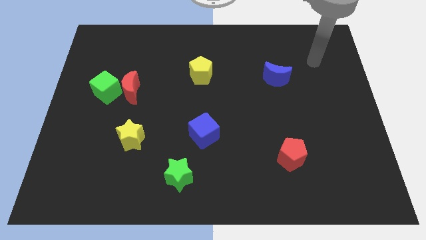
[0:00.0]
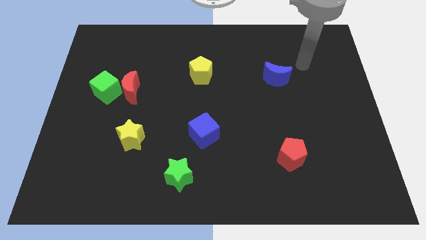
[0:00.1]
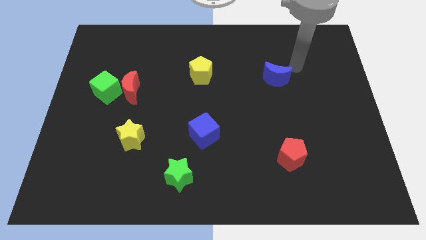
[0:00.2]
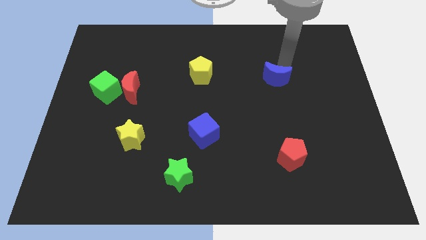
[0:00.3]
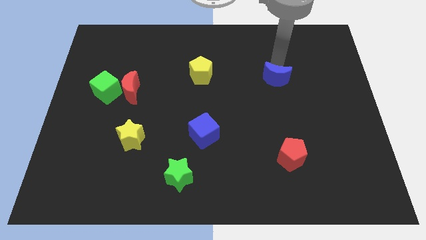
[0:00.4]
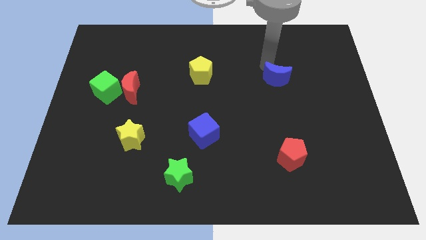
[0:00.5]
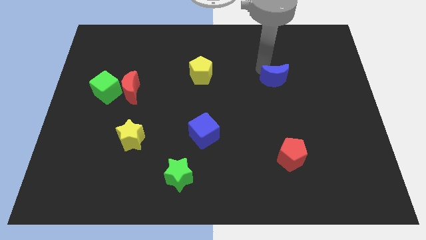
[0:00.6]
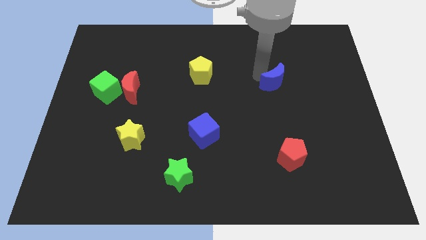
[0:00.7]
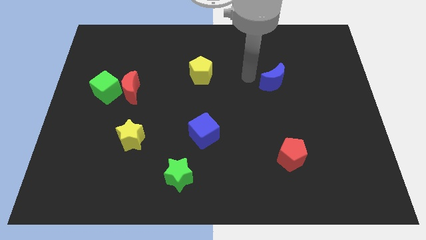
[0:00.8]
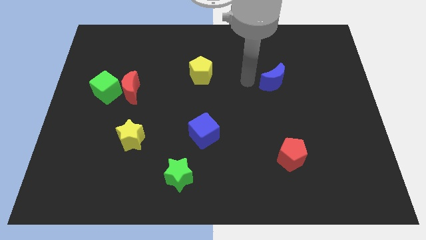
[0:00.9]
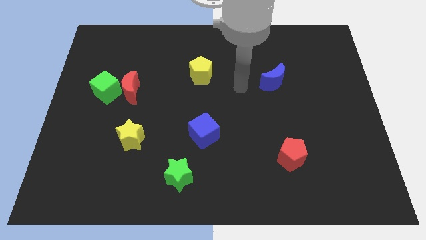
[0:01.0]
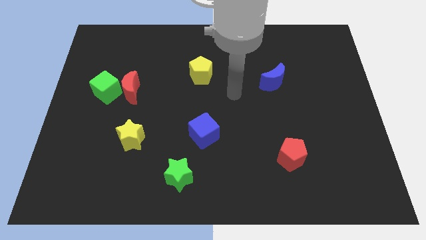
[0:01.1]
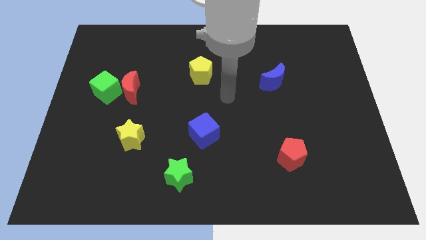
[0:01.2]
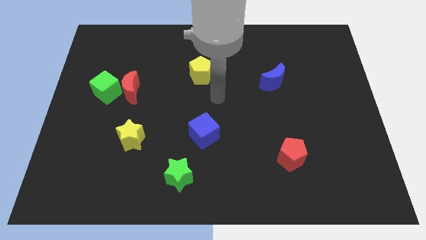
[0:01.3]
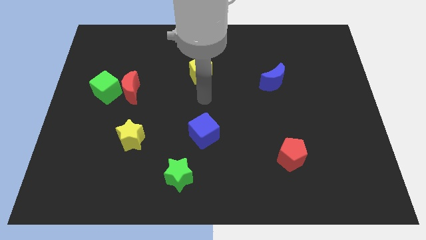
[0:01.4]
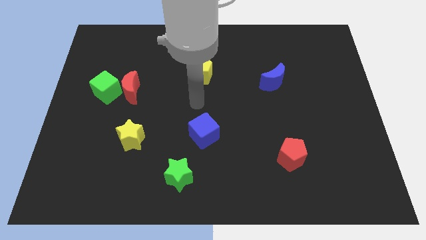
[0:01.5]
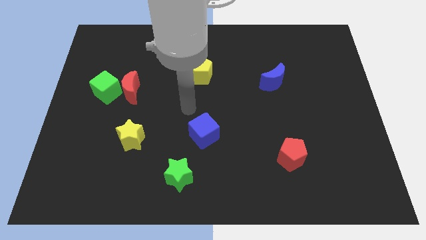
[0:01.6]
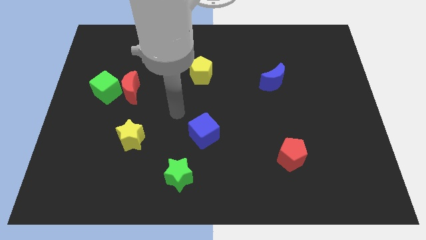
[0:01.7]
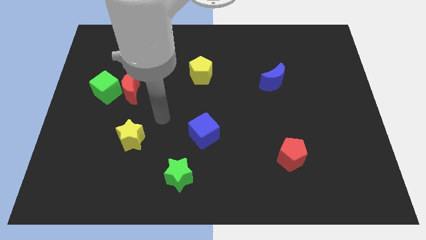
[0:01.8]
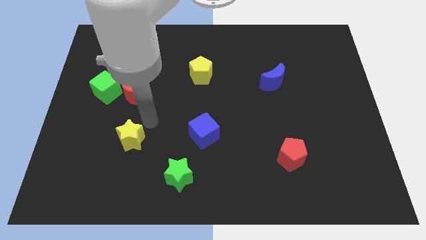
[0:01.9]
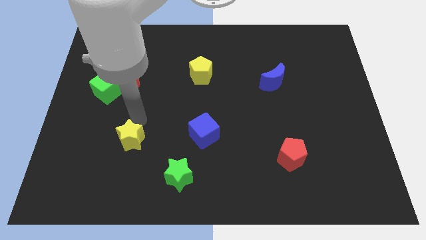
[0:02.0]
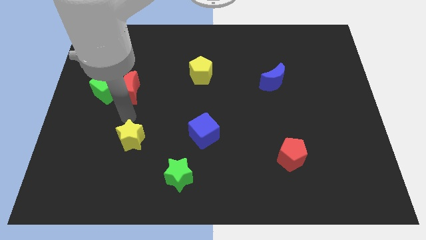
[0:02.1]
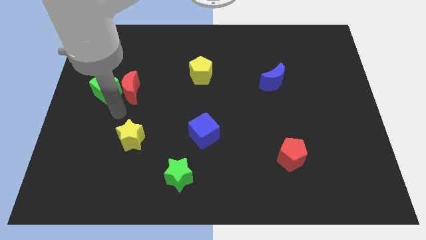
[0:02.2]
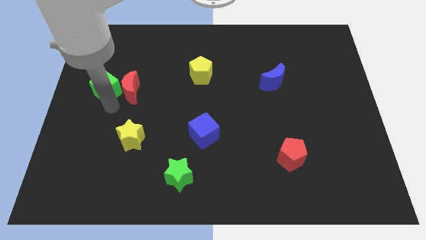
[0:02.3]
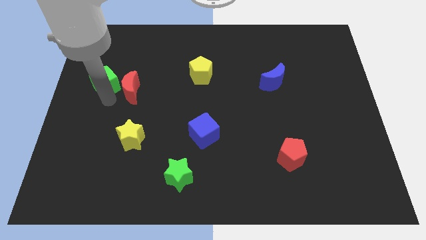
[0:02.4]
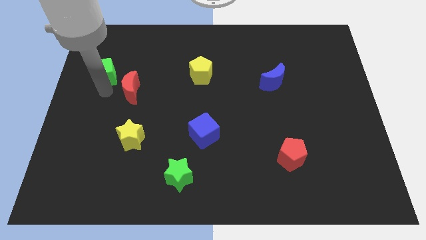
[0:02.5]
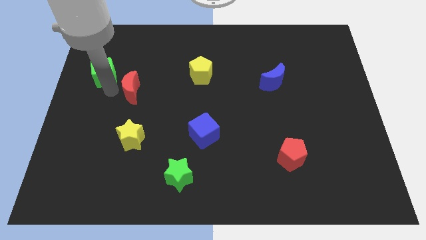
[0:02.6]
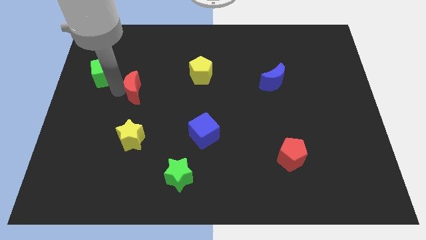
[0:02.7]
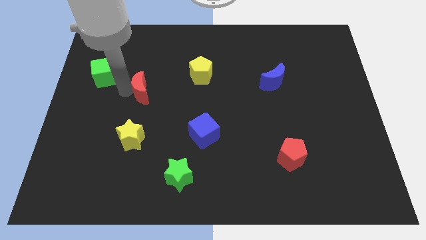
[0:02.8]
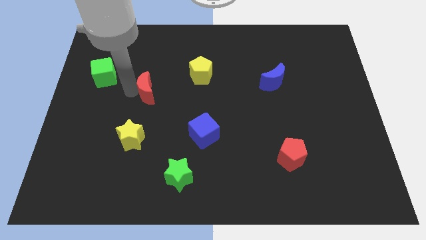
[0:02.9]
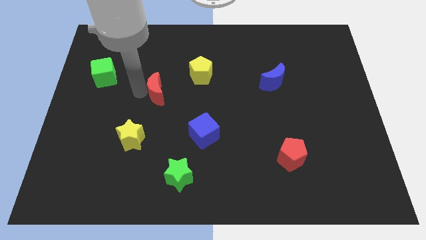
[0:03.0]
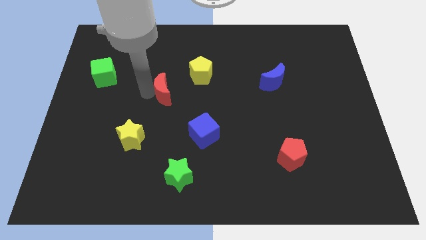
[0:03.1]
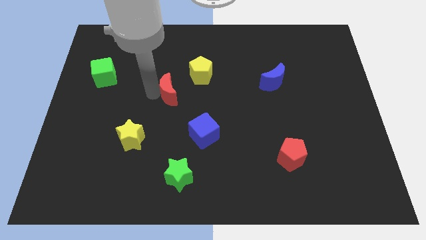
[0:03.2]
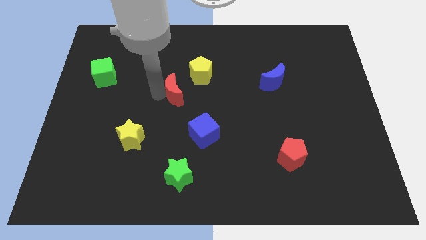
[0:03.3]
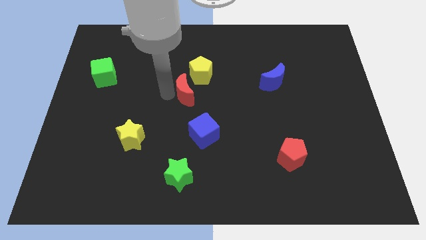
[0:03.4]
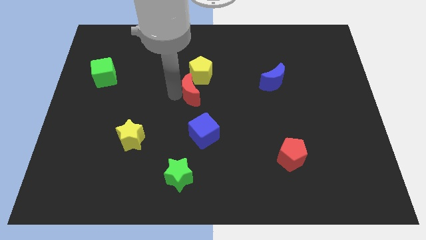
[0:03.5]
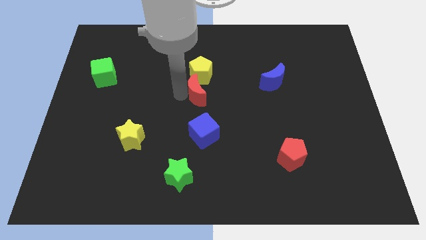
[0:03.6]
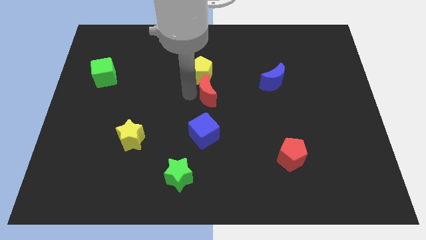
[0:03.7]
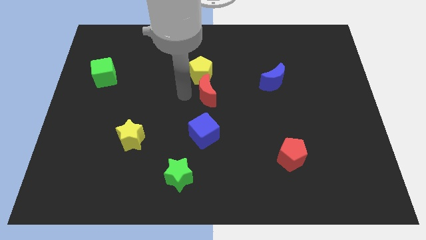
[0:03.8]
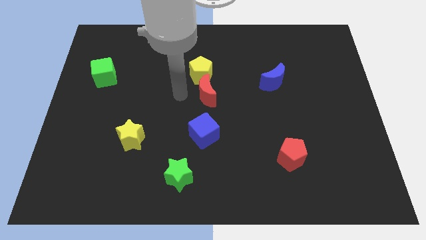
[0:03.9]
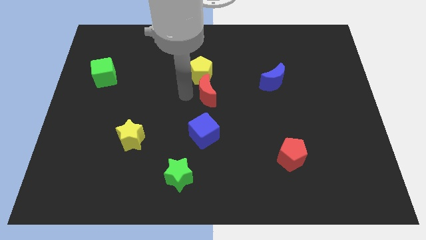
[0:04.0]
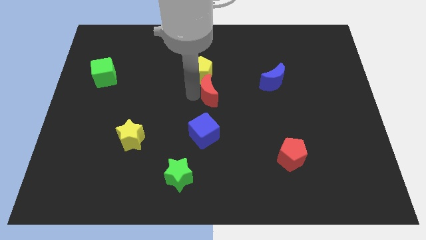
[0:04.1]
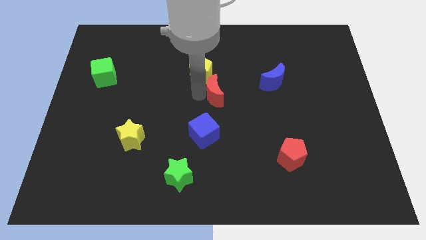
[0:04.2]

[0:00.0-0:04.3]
slide the red moon to the right

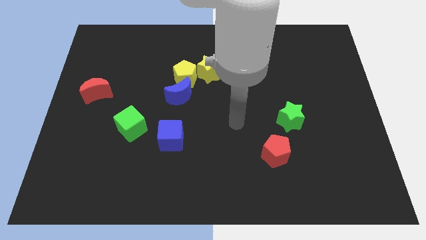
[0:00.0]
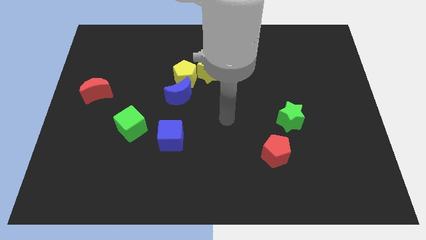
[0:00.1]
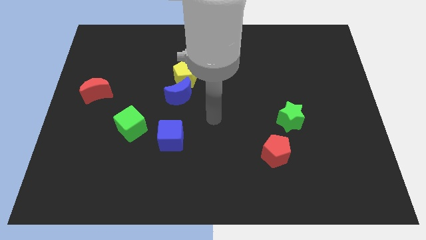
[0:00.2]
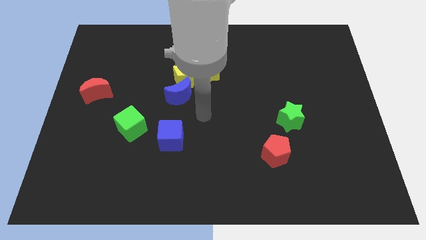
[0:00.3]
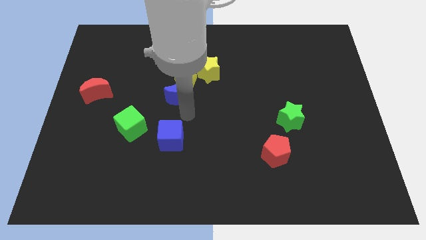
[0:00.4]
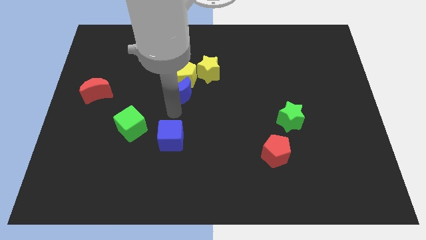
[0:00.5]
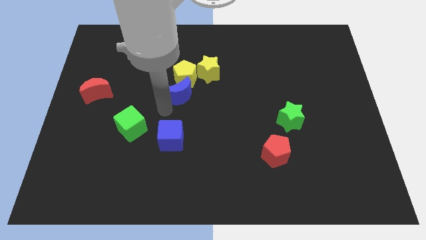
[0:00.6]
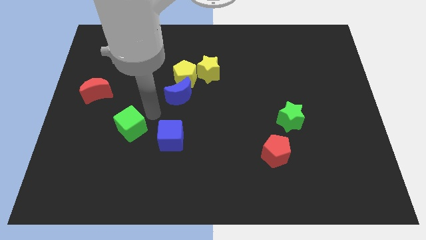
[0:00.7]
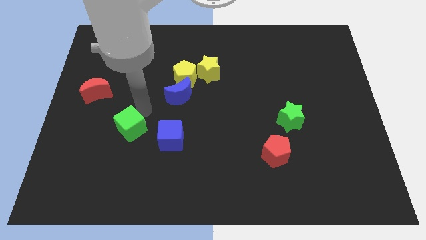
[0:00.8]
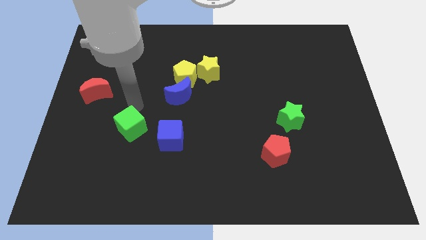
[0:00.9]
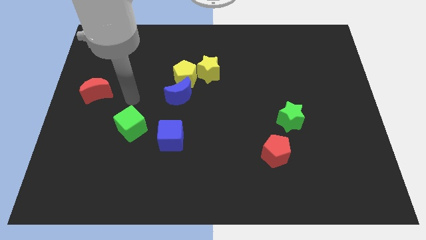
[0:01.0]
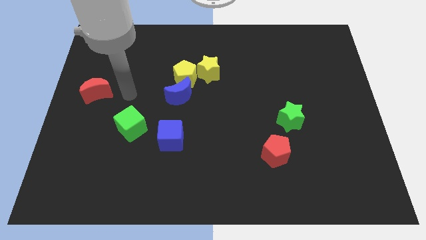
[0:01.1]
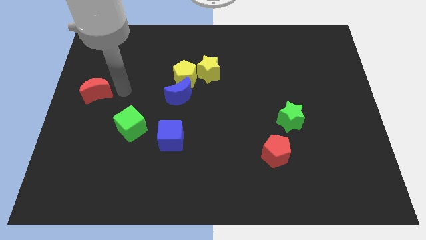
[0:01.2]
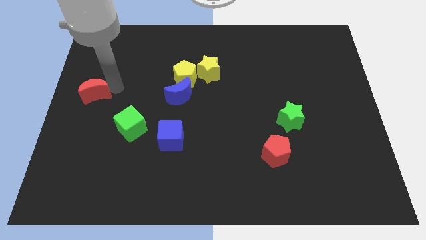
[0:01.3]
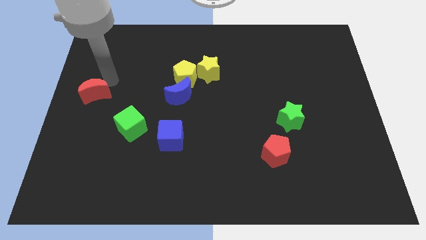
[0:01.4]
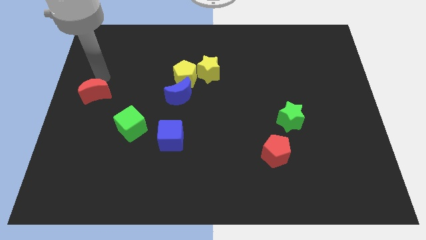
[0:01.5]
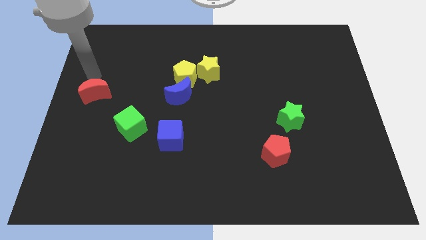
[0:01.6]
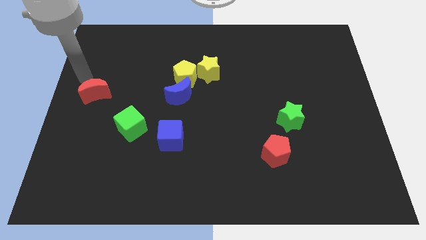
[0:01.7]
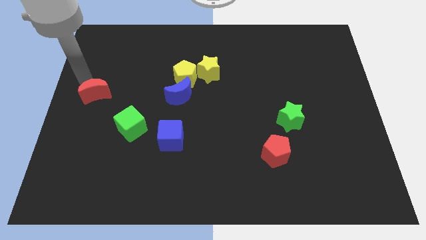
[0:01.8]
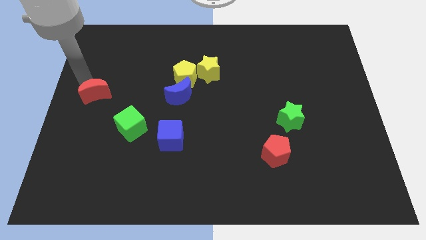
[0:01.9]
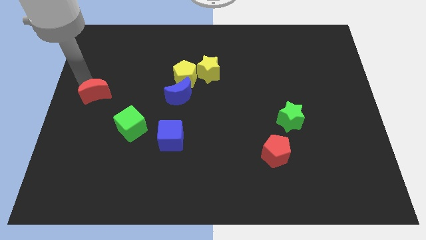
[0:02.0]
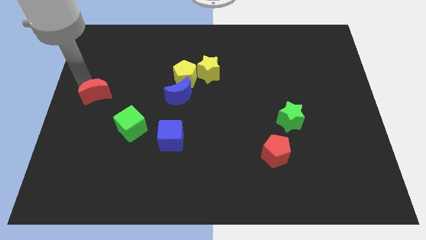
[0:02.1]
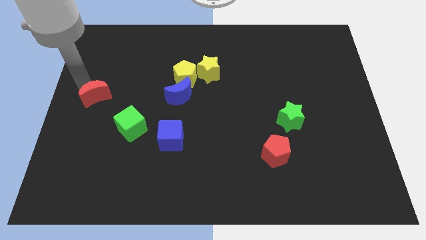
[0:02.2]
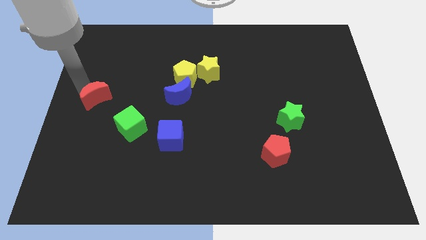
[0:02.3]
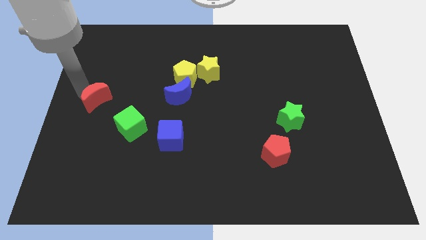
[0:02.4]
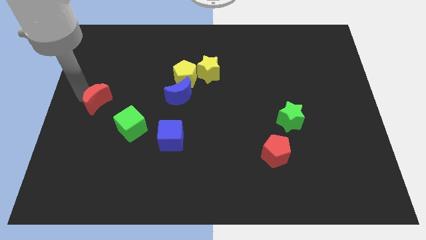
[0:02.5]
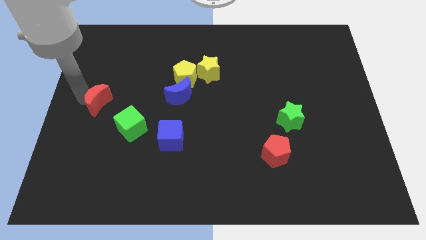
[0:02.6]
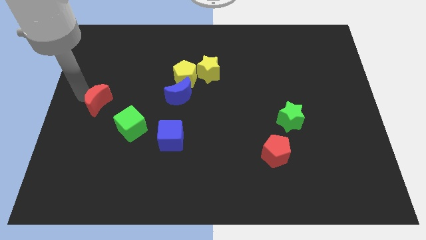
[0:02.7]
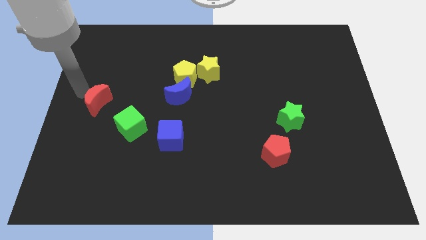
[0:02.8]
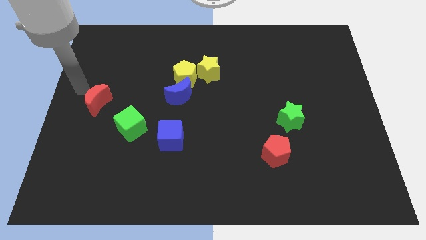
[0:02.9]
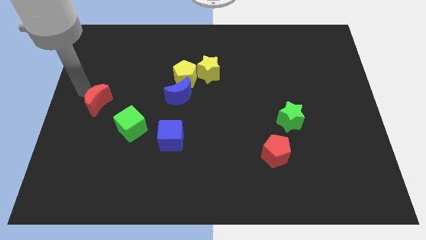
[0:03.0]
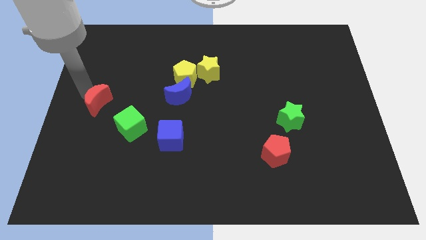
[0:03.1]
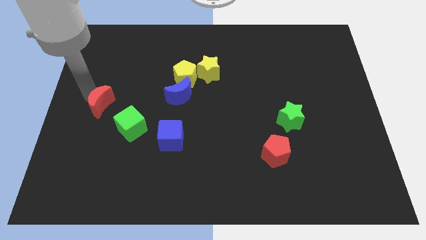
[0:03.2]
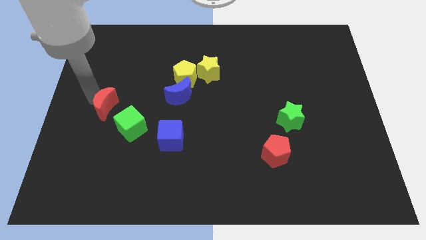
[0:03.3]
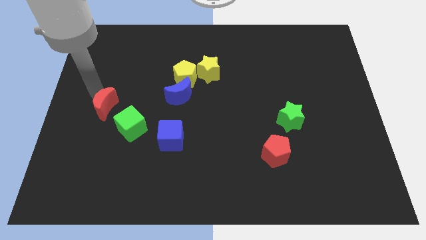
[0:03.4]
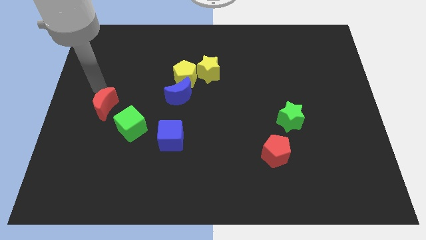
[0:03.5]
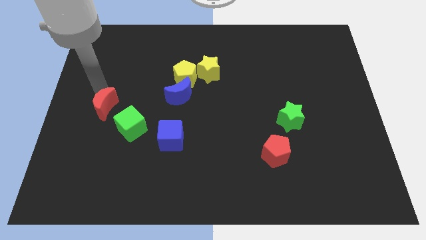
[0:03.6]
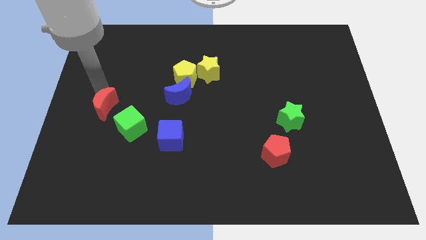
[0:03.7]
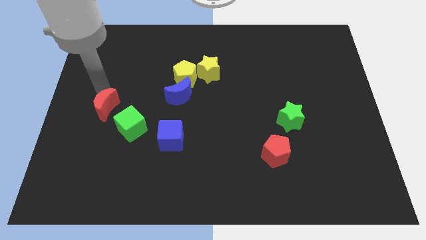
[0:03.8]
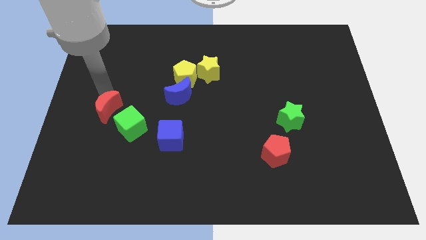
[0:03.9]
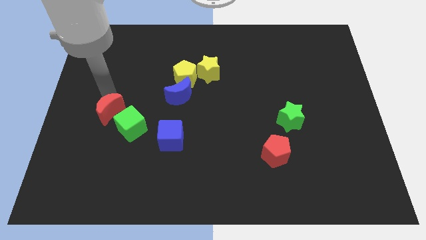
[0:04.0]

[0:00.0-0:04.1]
push the red moon down and then right a little
